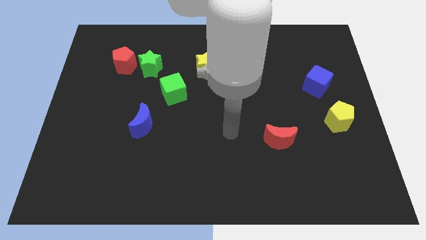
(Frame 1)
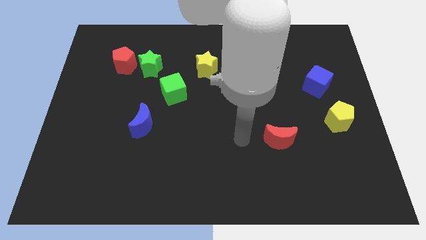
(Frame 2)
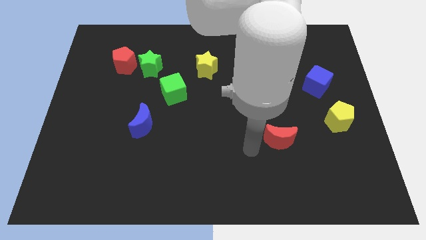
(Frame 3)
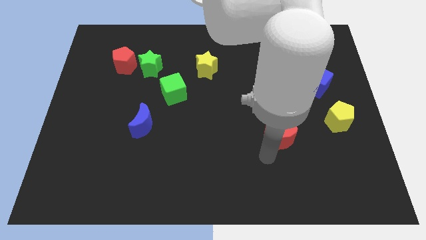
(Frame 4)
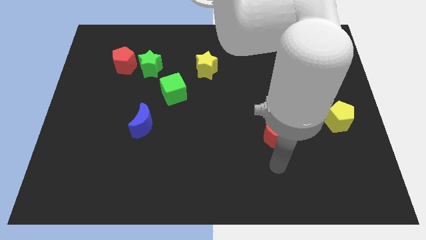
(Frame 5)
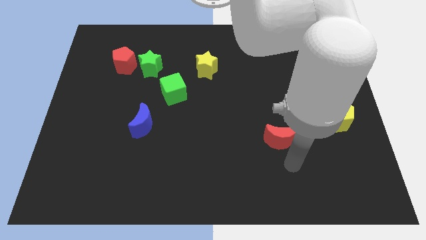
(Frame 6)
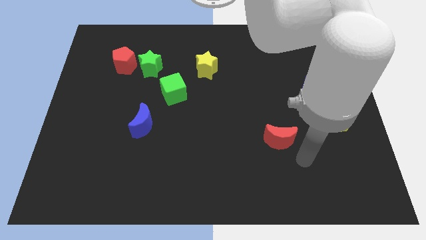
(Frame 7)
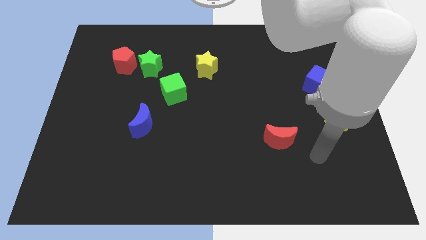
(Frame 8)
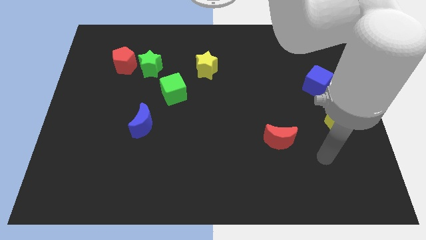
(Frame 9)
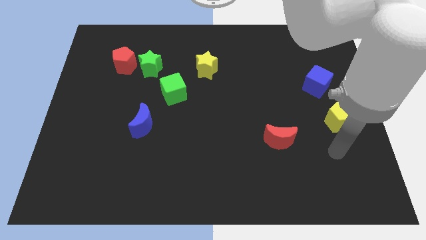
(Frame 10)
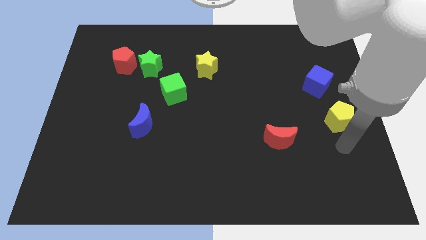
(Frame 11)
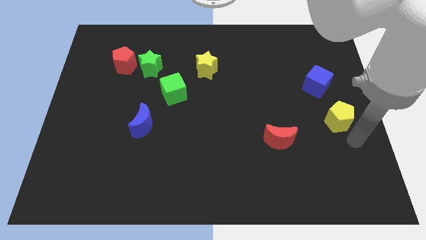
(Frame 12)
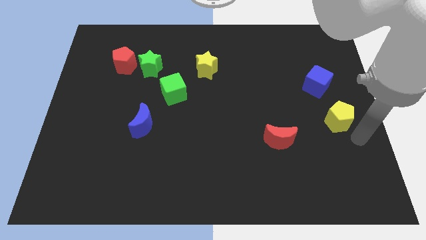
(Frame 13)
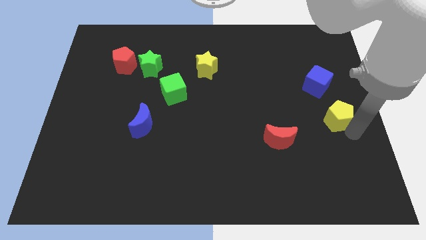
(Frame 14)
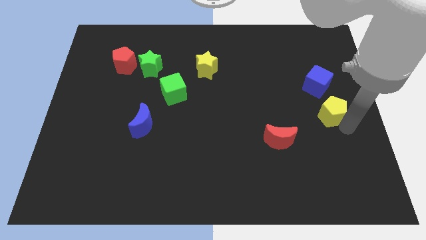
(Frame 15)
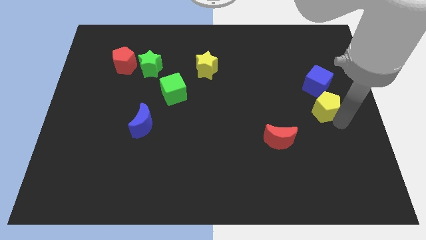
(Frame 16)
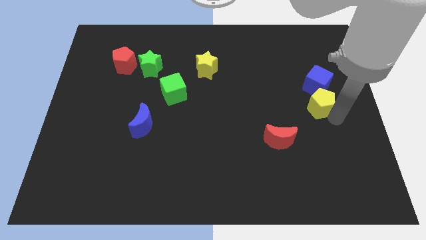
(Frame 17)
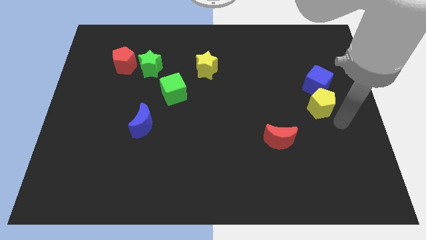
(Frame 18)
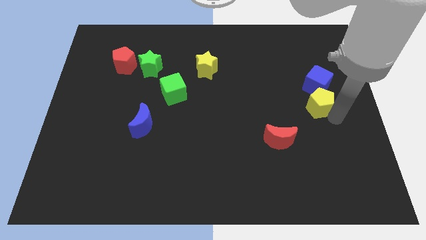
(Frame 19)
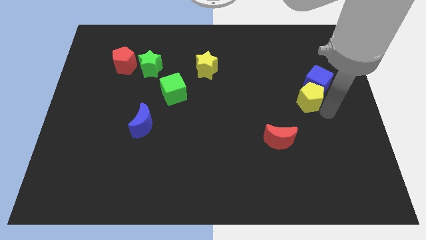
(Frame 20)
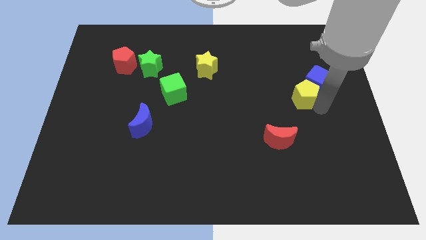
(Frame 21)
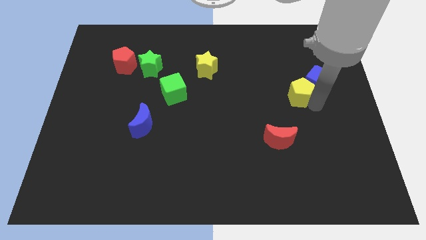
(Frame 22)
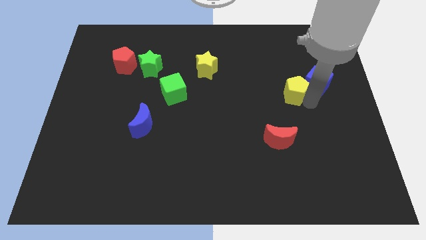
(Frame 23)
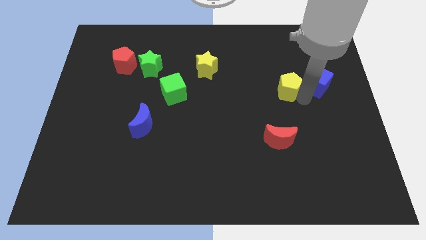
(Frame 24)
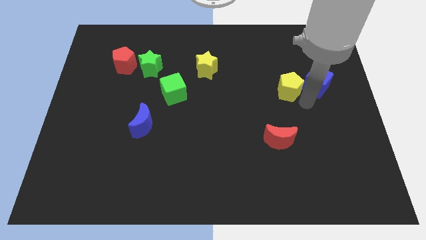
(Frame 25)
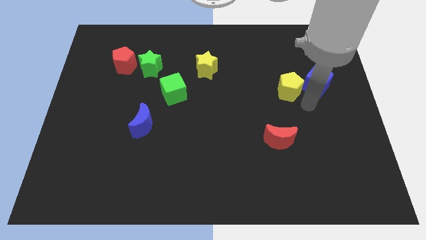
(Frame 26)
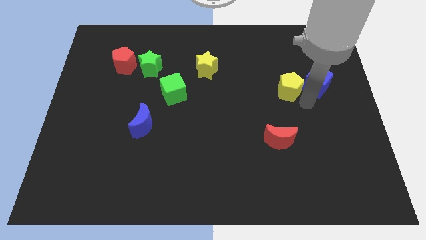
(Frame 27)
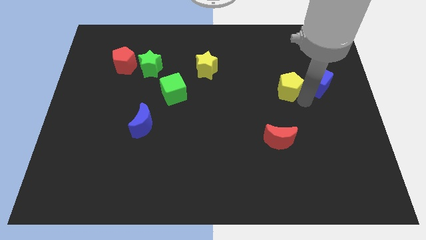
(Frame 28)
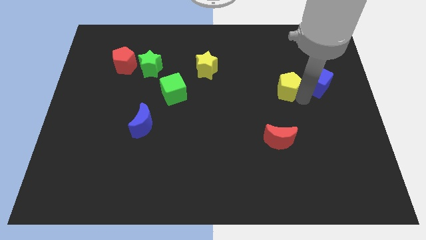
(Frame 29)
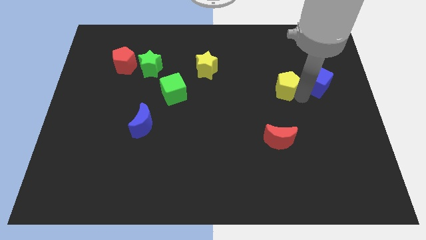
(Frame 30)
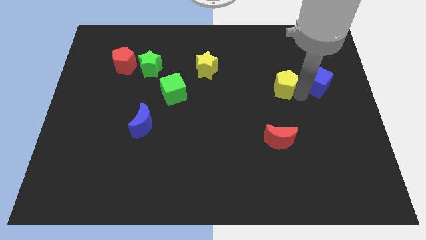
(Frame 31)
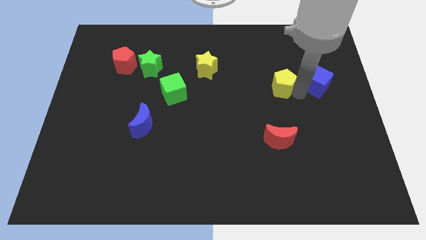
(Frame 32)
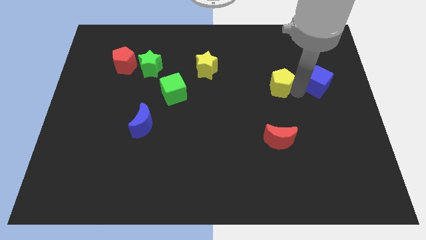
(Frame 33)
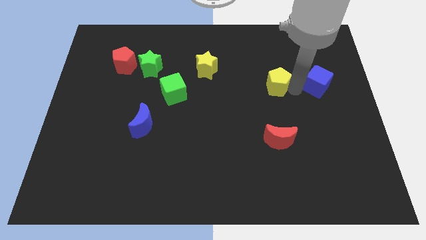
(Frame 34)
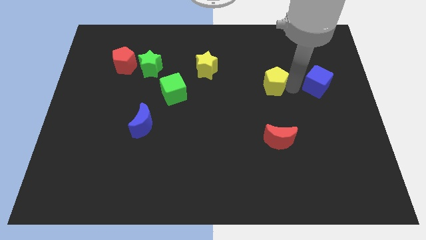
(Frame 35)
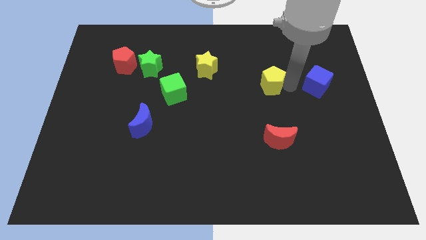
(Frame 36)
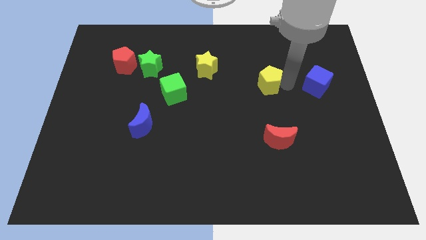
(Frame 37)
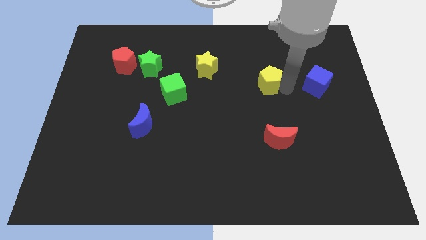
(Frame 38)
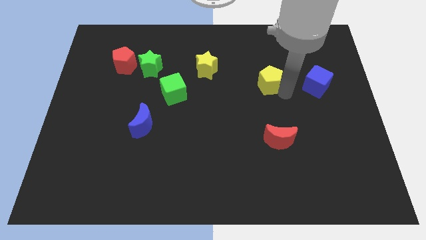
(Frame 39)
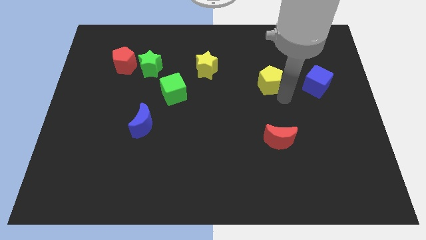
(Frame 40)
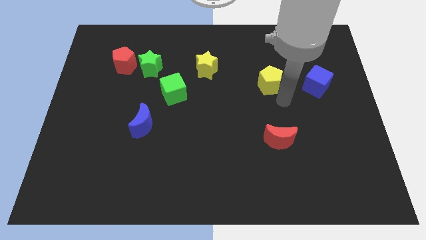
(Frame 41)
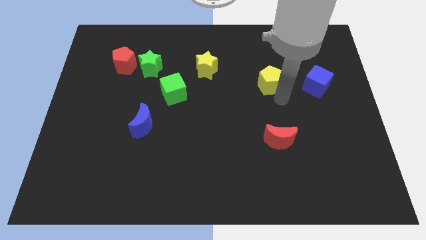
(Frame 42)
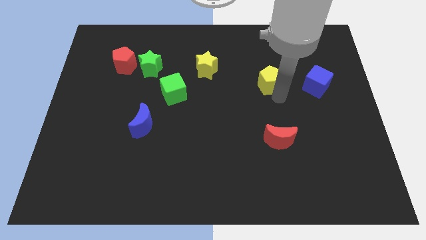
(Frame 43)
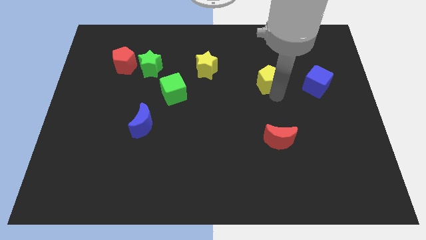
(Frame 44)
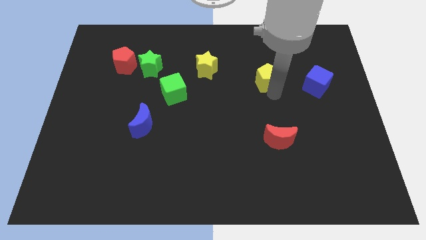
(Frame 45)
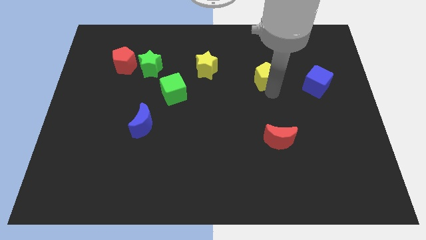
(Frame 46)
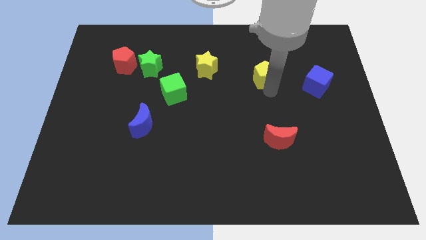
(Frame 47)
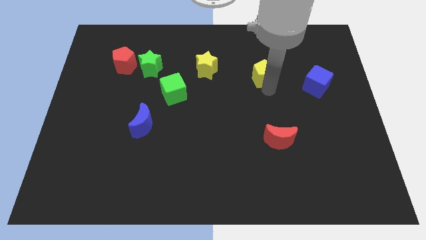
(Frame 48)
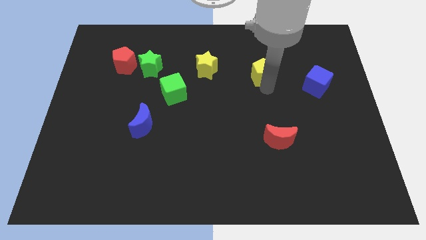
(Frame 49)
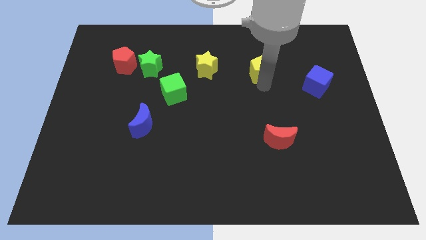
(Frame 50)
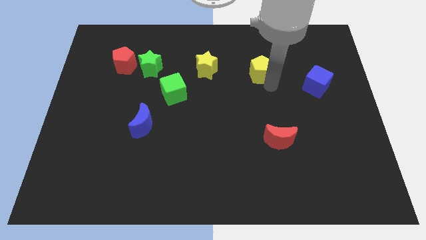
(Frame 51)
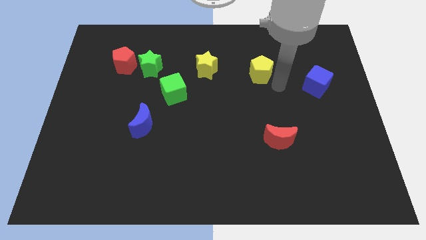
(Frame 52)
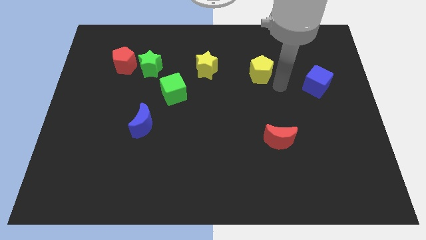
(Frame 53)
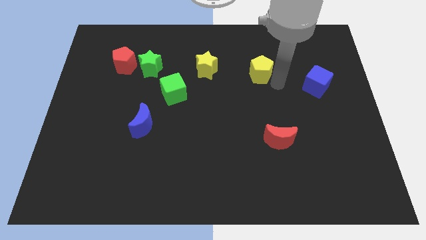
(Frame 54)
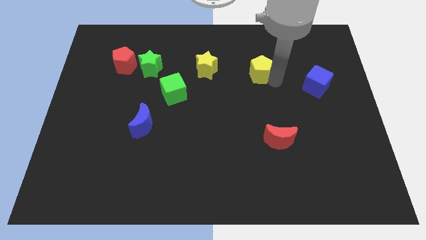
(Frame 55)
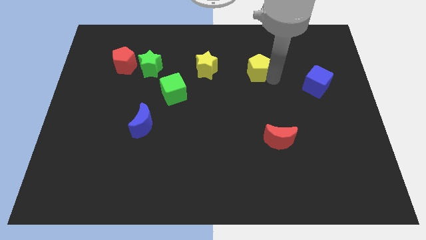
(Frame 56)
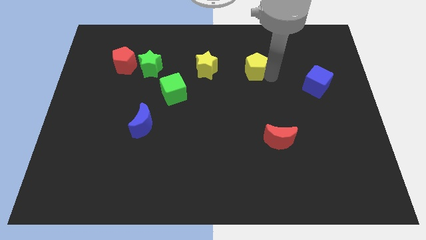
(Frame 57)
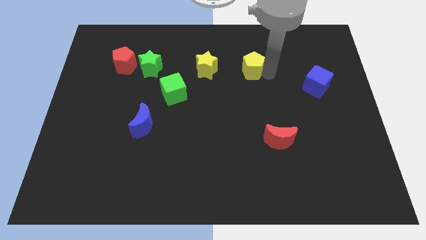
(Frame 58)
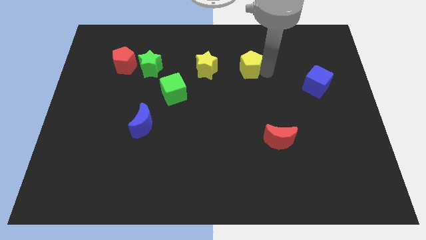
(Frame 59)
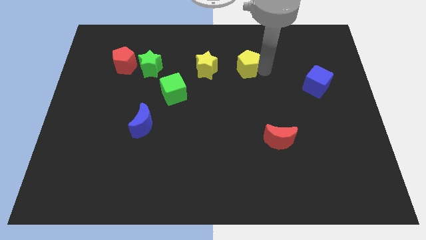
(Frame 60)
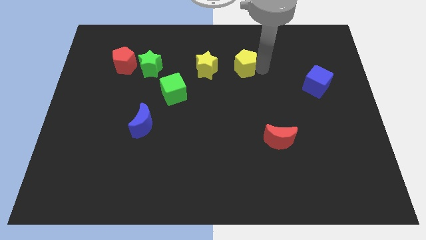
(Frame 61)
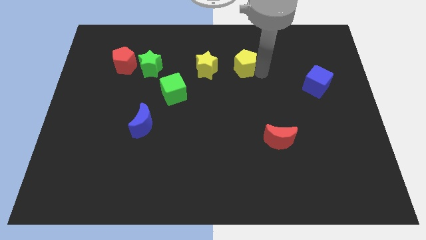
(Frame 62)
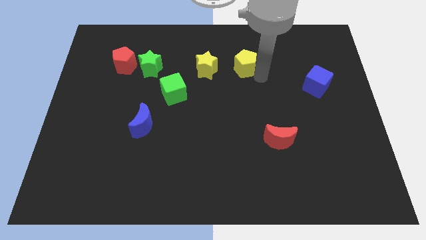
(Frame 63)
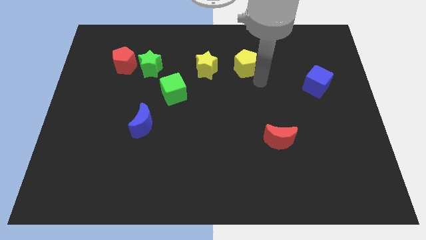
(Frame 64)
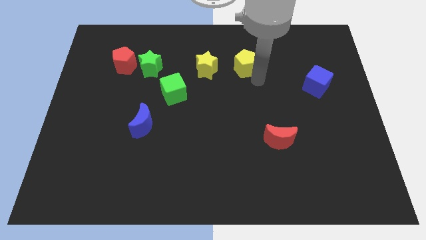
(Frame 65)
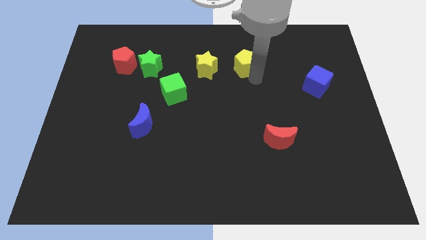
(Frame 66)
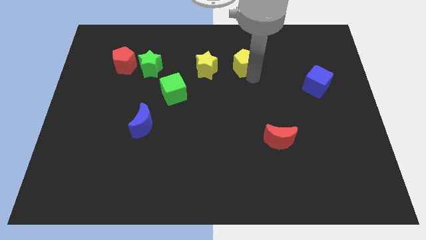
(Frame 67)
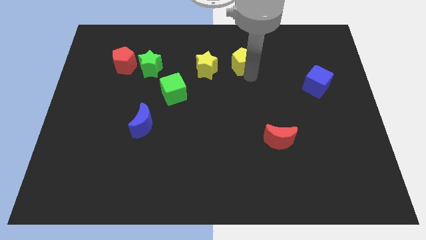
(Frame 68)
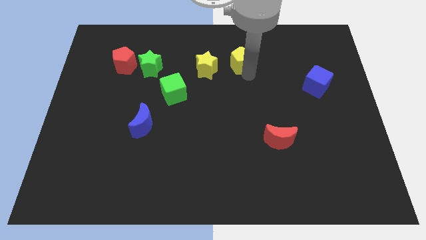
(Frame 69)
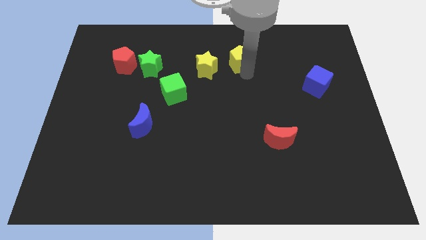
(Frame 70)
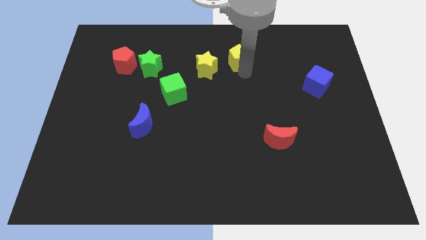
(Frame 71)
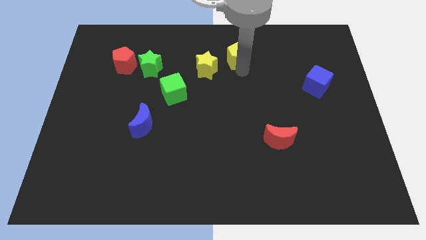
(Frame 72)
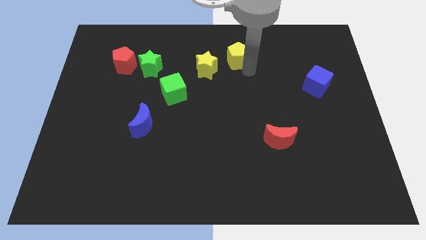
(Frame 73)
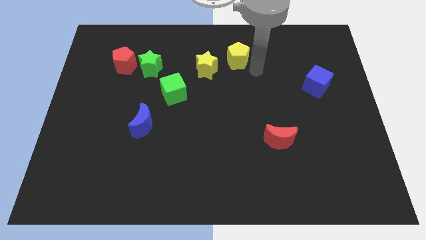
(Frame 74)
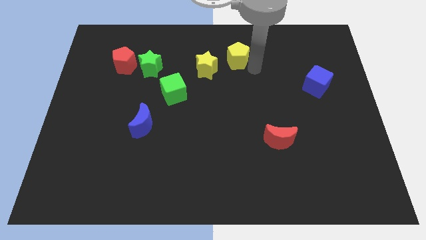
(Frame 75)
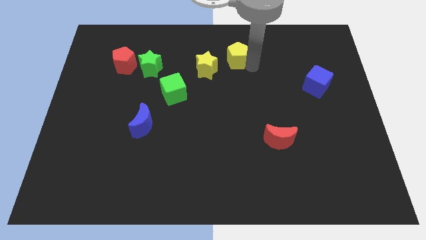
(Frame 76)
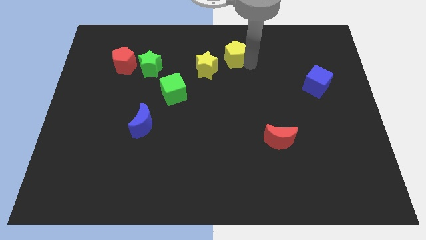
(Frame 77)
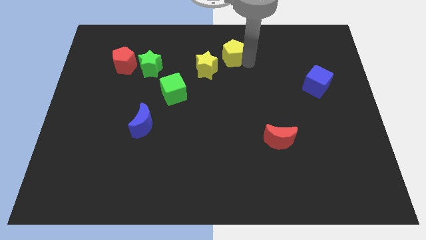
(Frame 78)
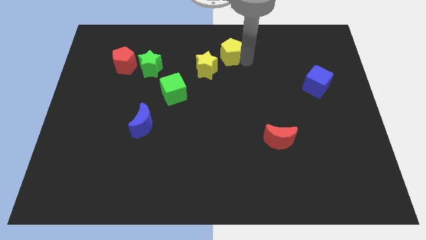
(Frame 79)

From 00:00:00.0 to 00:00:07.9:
put the yellow pentagon to the top
